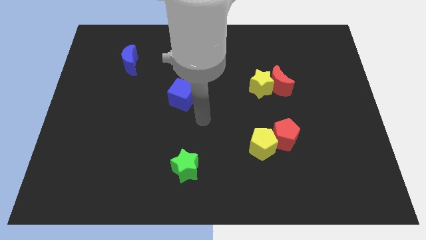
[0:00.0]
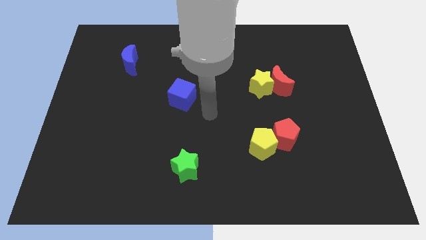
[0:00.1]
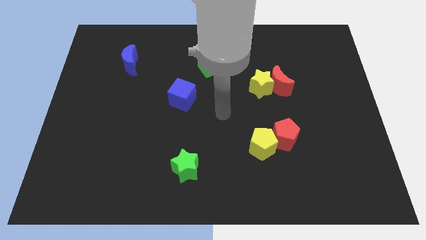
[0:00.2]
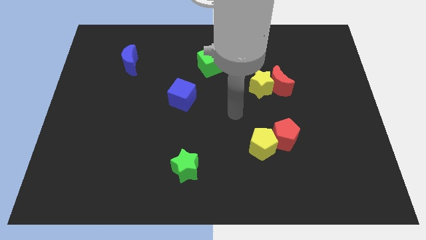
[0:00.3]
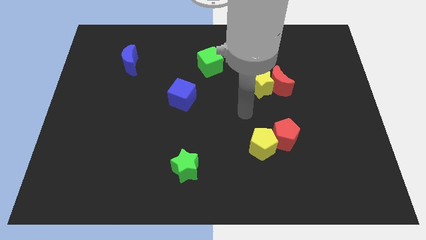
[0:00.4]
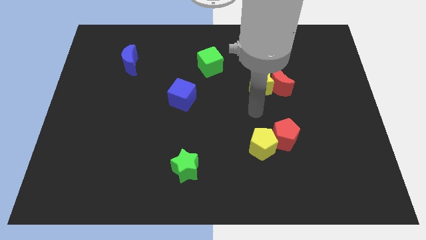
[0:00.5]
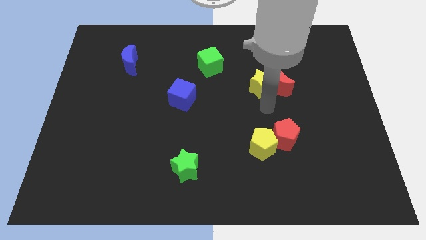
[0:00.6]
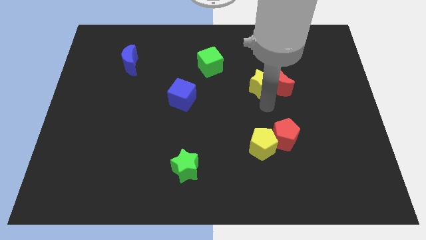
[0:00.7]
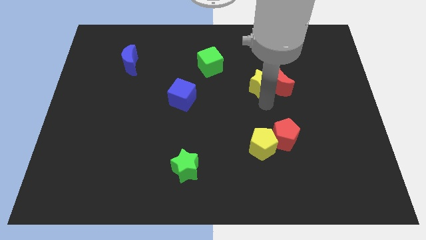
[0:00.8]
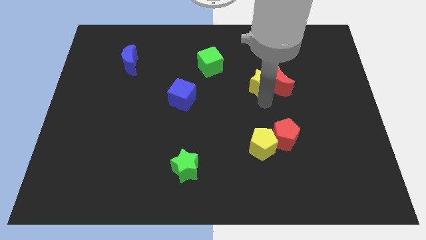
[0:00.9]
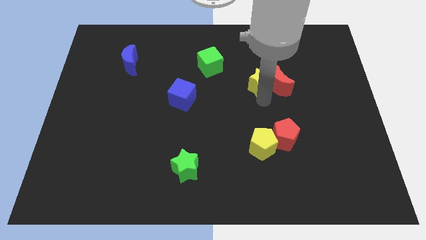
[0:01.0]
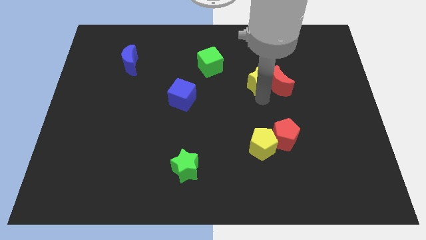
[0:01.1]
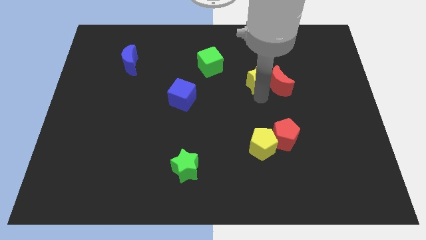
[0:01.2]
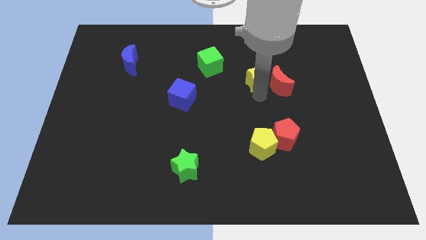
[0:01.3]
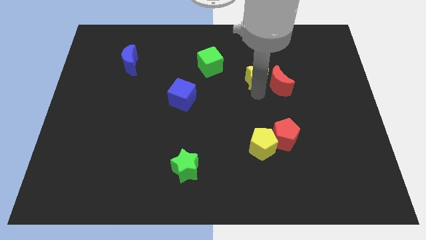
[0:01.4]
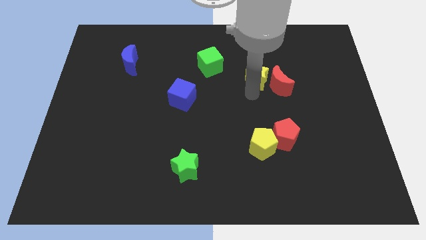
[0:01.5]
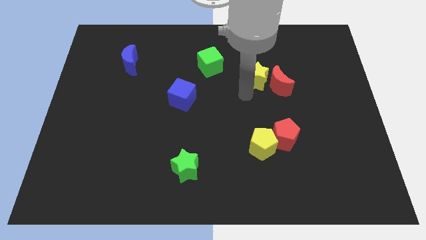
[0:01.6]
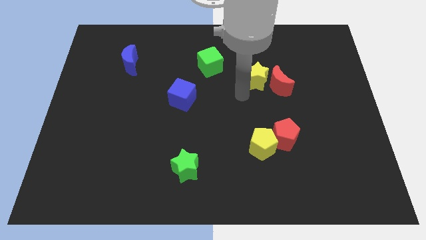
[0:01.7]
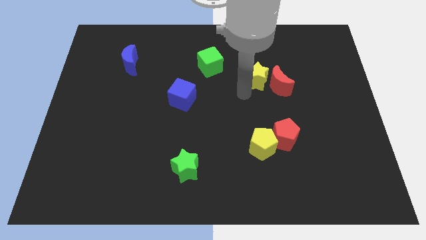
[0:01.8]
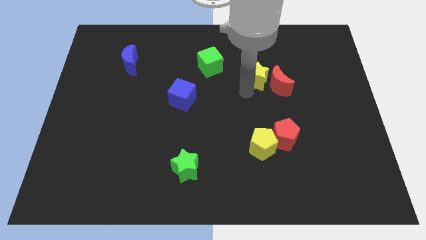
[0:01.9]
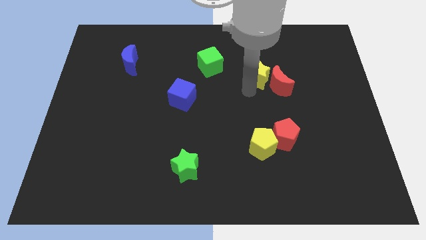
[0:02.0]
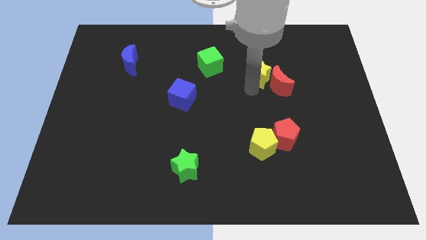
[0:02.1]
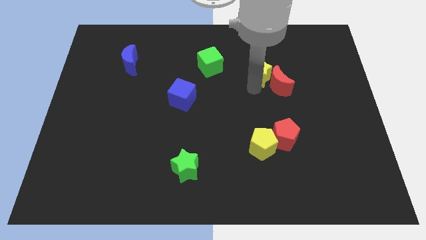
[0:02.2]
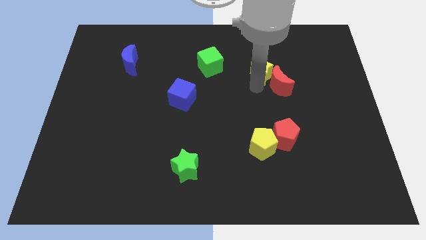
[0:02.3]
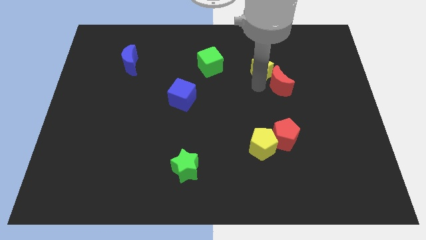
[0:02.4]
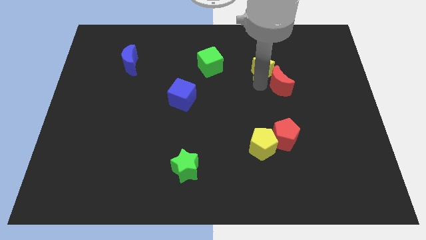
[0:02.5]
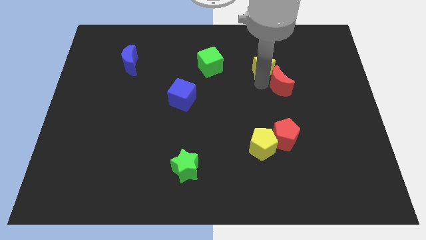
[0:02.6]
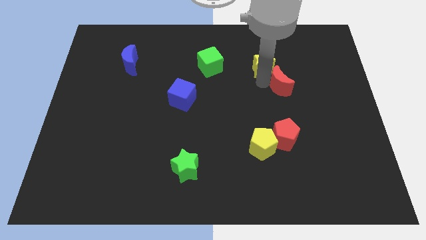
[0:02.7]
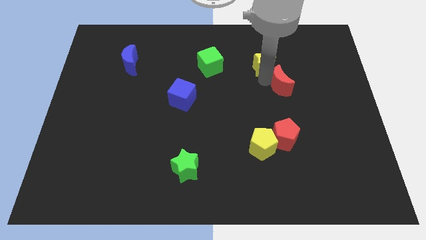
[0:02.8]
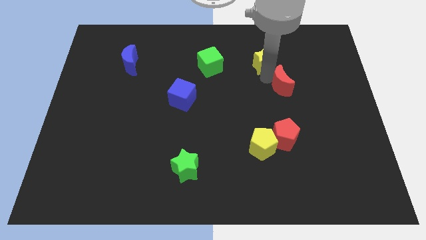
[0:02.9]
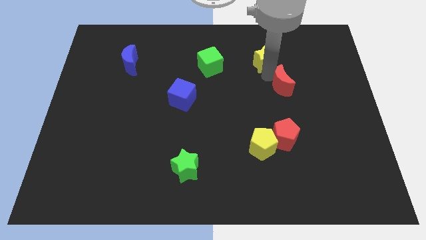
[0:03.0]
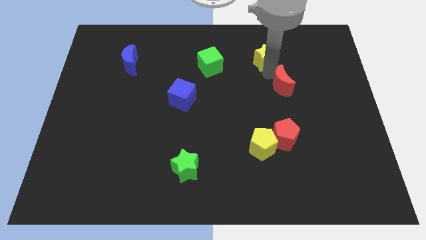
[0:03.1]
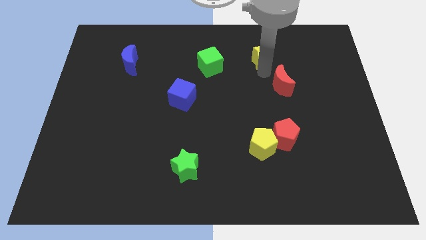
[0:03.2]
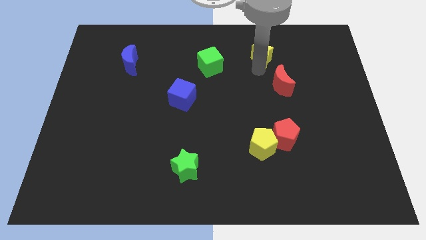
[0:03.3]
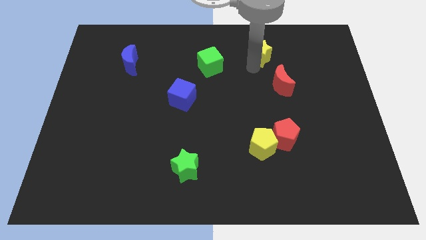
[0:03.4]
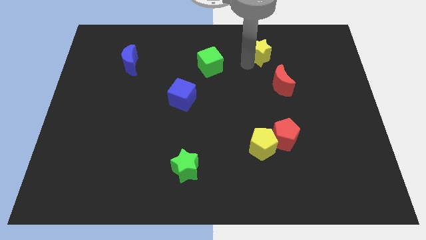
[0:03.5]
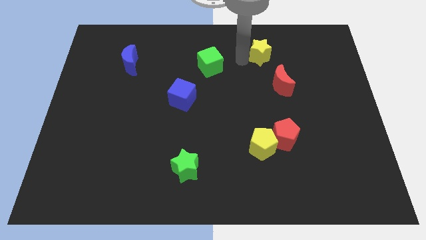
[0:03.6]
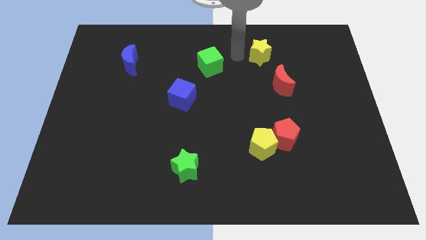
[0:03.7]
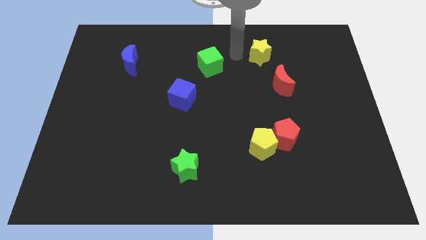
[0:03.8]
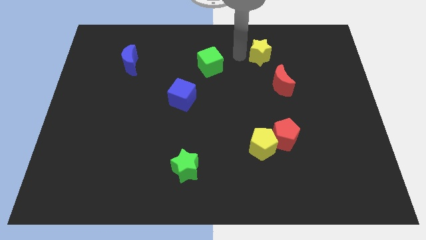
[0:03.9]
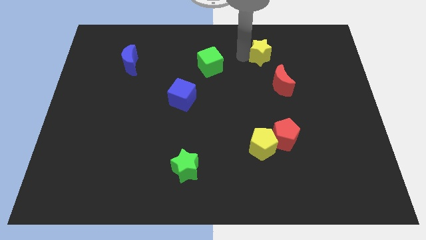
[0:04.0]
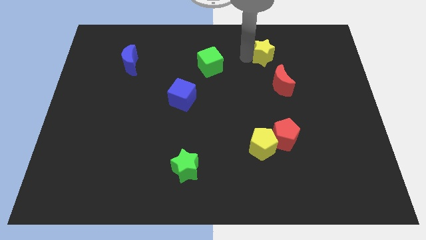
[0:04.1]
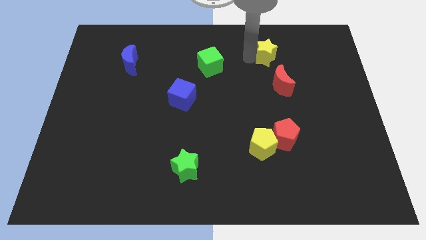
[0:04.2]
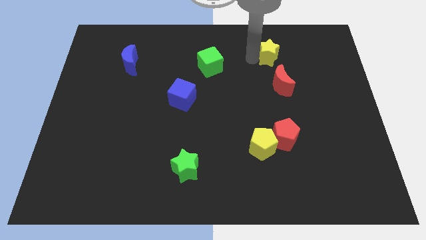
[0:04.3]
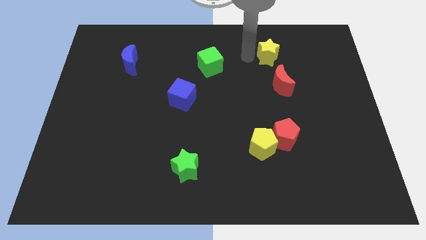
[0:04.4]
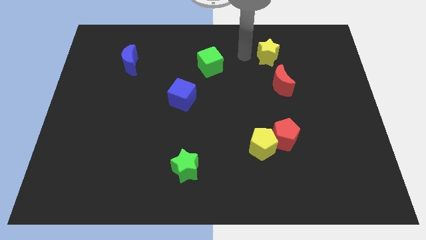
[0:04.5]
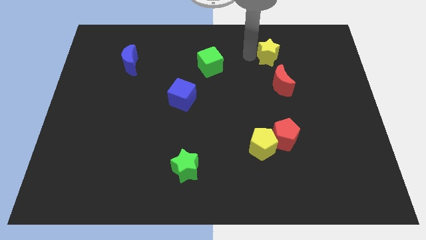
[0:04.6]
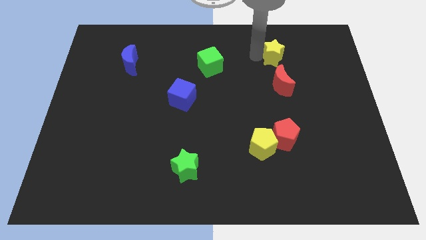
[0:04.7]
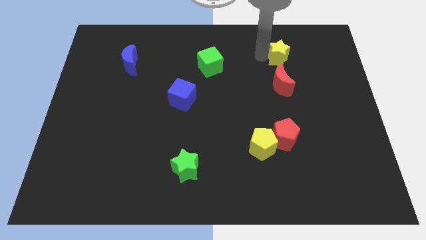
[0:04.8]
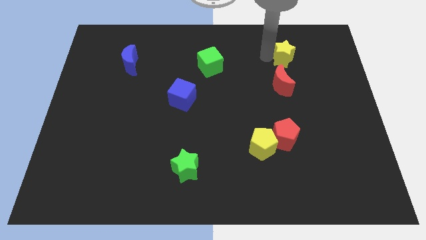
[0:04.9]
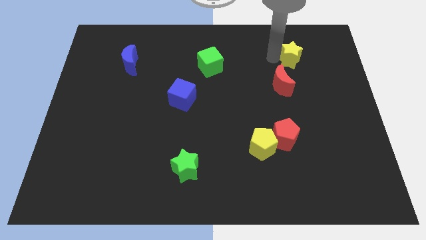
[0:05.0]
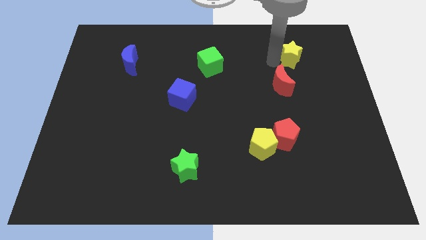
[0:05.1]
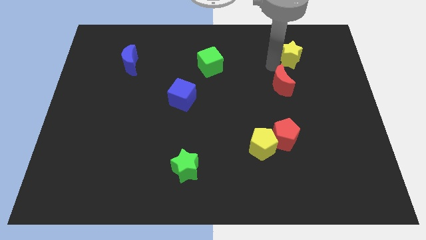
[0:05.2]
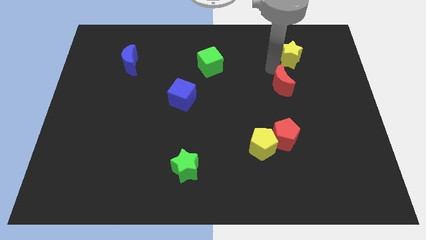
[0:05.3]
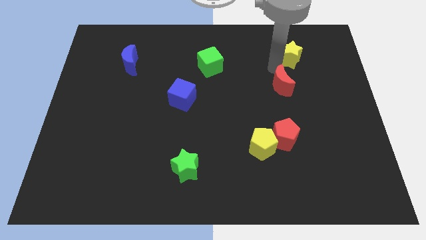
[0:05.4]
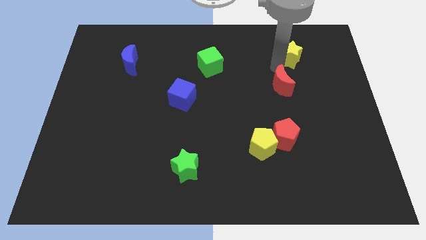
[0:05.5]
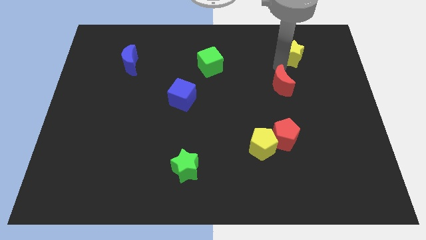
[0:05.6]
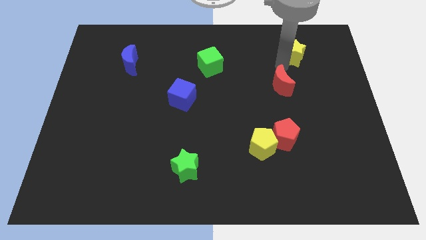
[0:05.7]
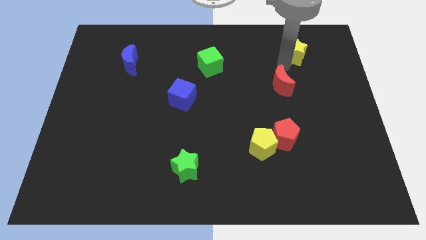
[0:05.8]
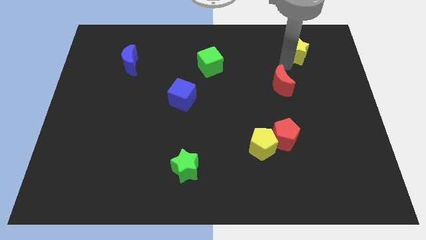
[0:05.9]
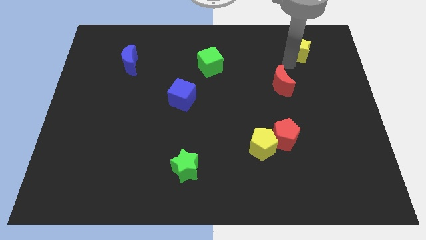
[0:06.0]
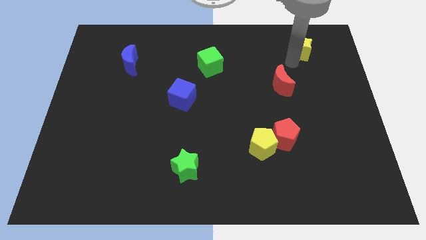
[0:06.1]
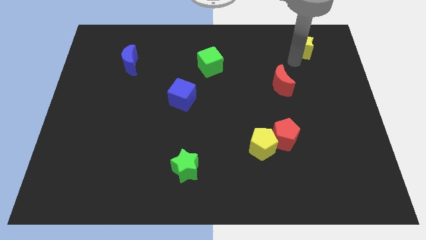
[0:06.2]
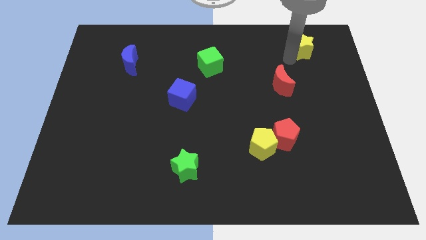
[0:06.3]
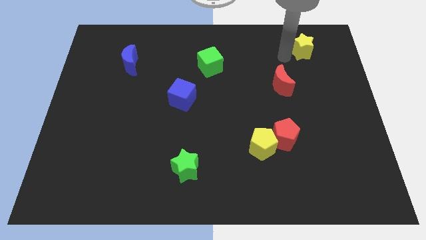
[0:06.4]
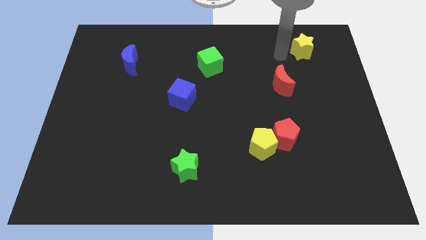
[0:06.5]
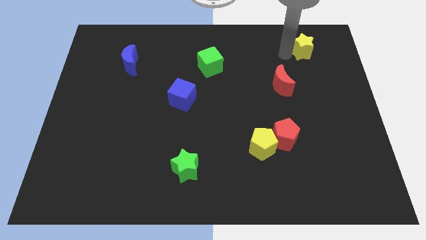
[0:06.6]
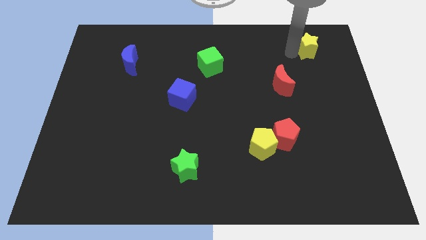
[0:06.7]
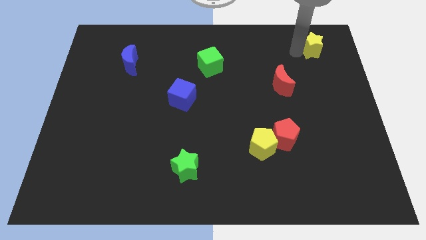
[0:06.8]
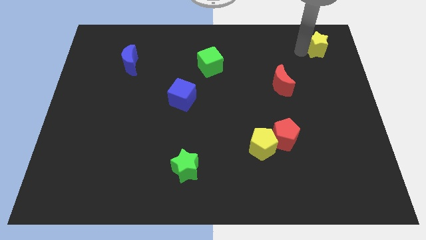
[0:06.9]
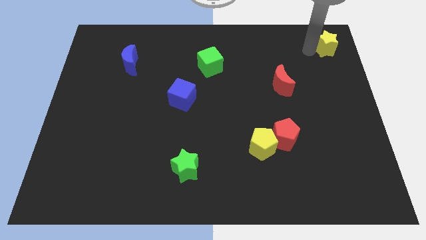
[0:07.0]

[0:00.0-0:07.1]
slide the yellow star to the top right
